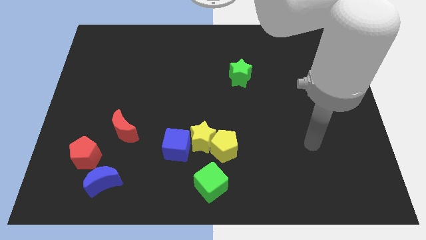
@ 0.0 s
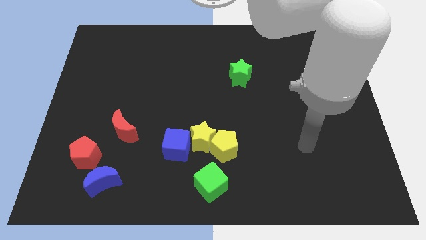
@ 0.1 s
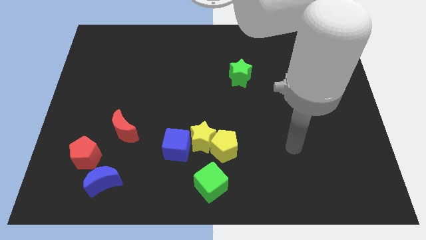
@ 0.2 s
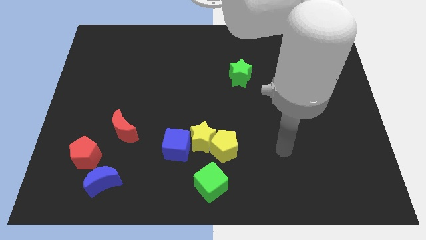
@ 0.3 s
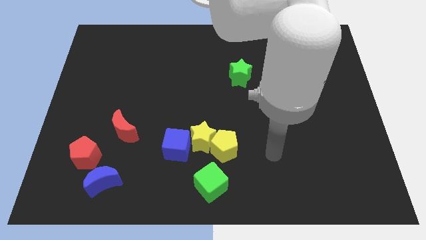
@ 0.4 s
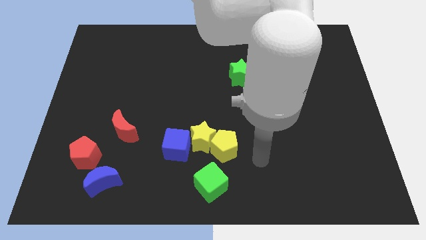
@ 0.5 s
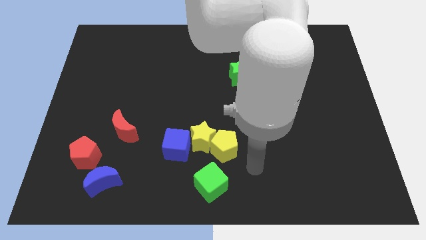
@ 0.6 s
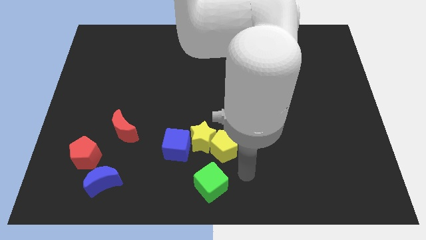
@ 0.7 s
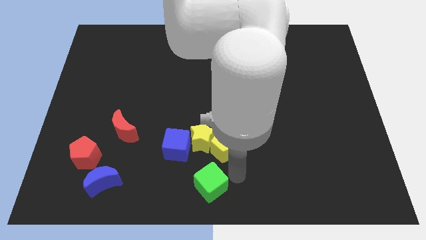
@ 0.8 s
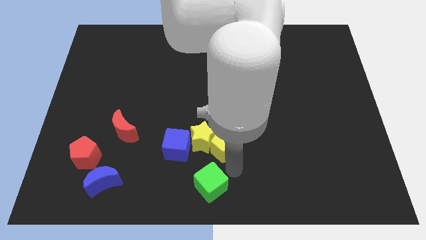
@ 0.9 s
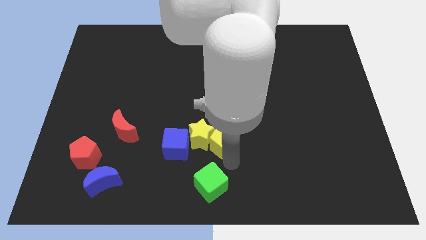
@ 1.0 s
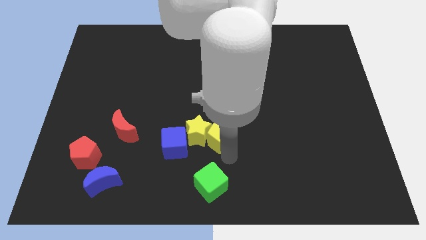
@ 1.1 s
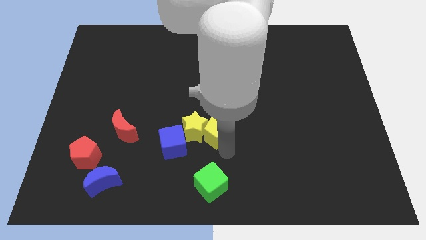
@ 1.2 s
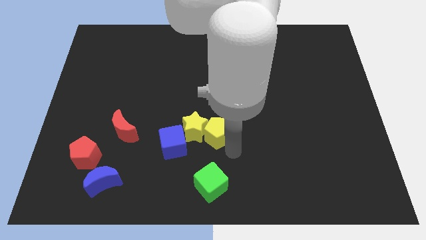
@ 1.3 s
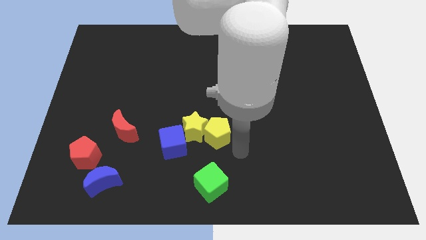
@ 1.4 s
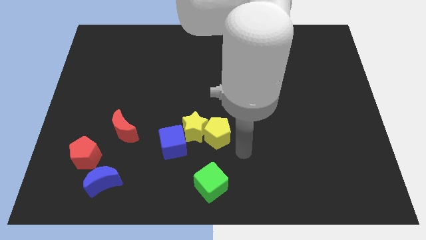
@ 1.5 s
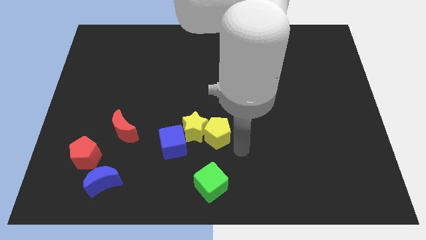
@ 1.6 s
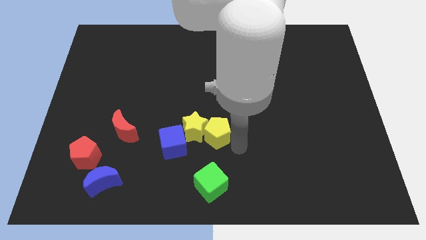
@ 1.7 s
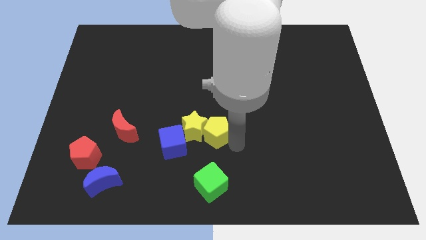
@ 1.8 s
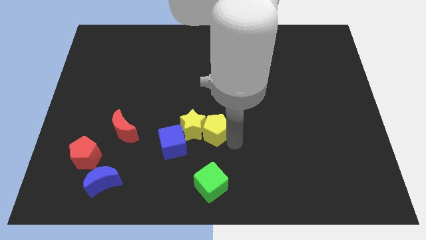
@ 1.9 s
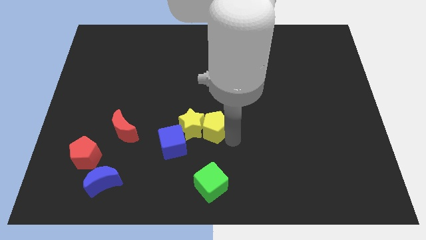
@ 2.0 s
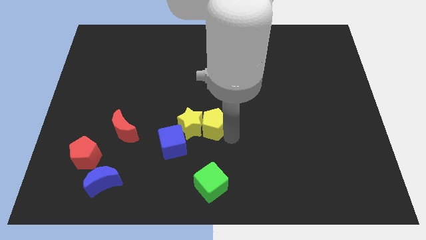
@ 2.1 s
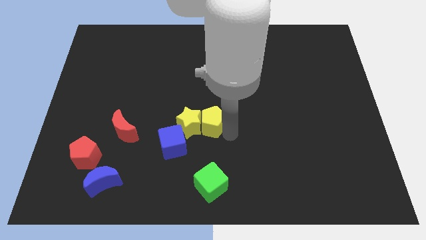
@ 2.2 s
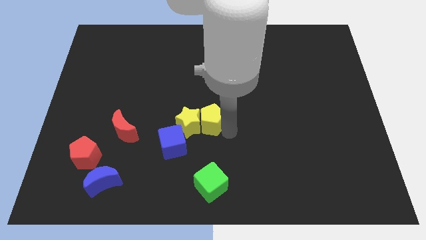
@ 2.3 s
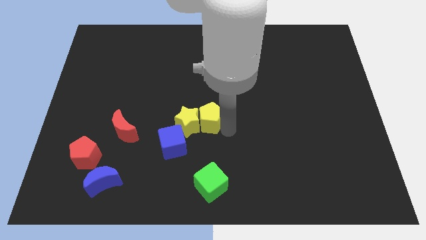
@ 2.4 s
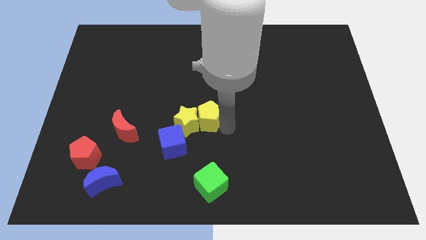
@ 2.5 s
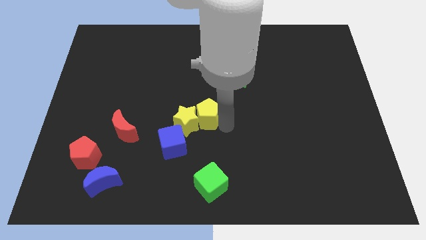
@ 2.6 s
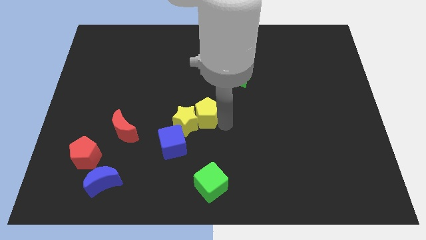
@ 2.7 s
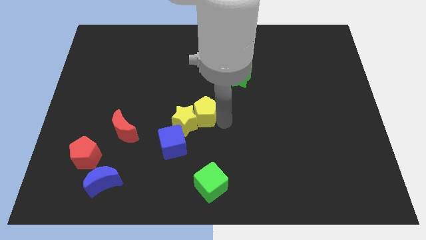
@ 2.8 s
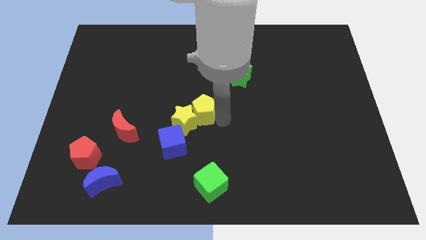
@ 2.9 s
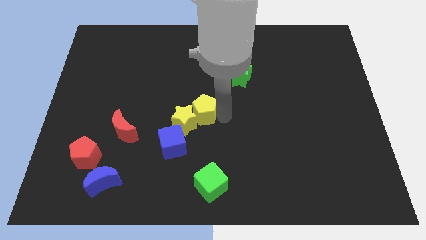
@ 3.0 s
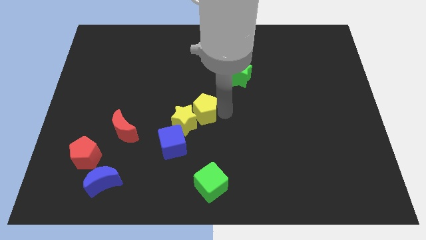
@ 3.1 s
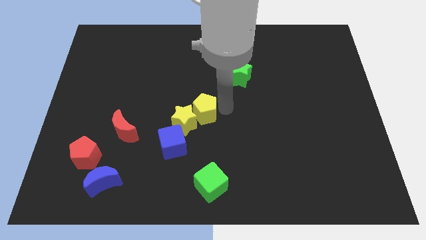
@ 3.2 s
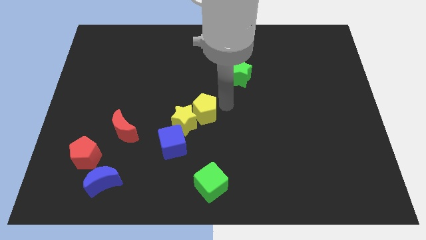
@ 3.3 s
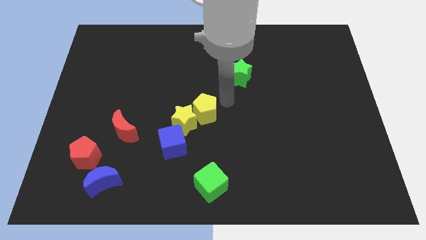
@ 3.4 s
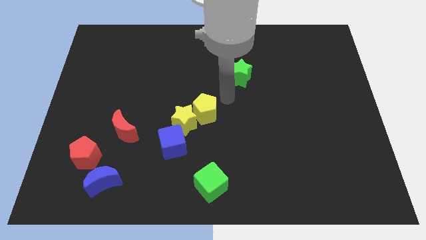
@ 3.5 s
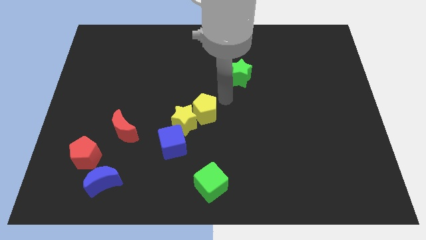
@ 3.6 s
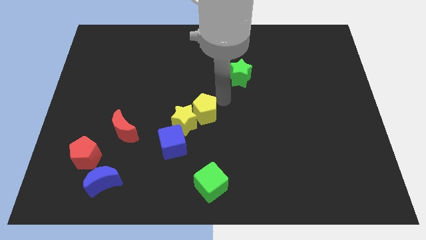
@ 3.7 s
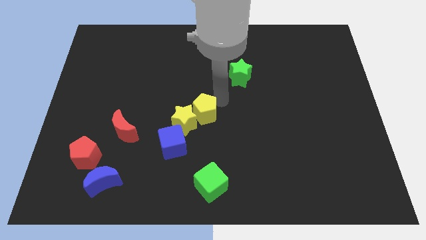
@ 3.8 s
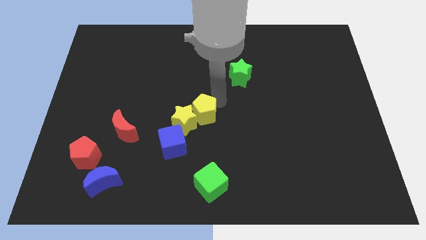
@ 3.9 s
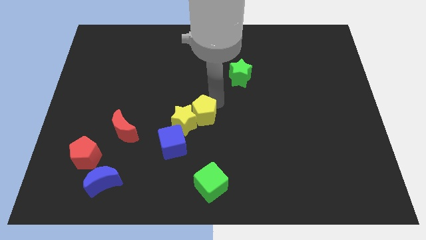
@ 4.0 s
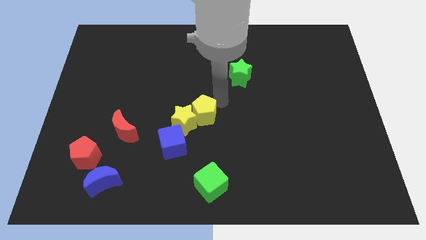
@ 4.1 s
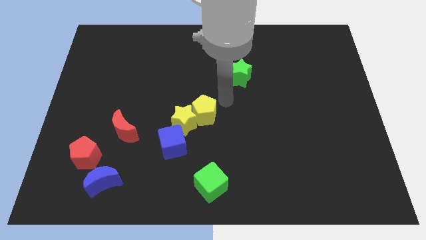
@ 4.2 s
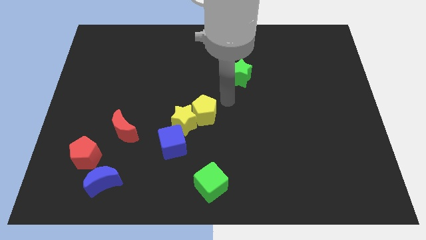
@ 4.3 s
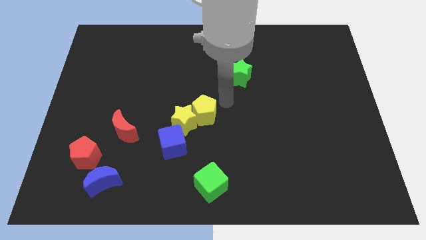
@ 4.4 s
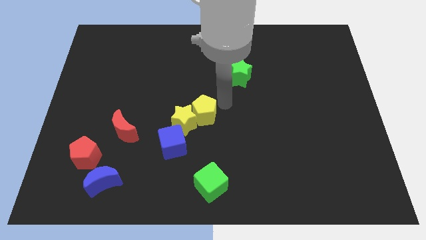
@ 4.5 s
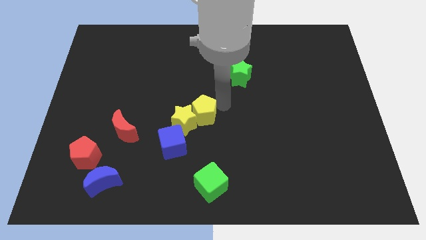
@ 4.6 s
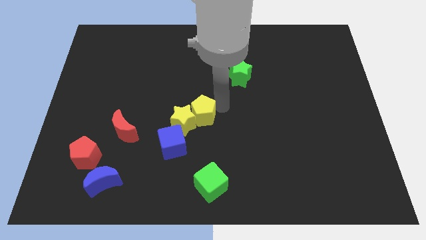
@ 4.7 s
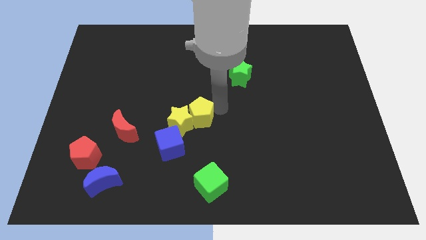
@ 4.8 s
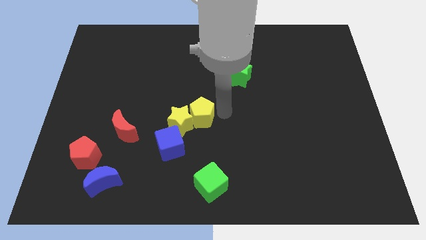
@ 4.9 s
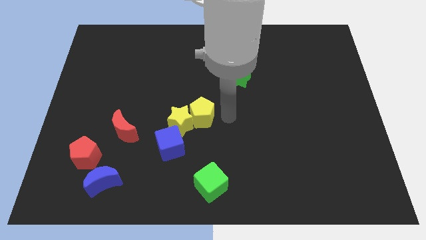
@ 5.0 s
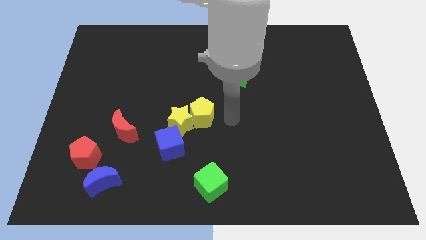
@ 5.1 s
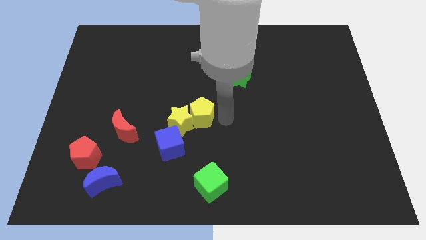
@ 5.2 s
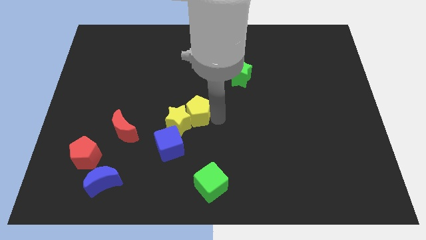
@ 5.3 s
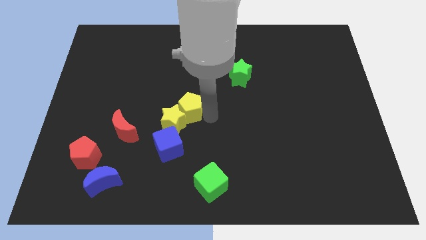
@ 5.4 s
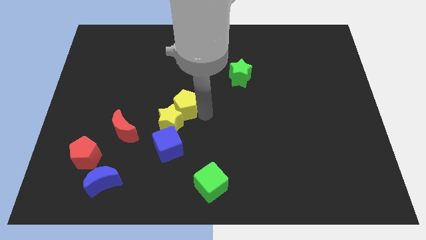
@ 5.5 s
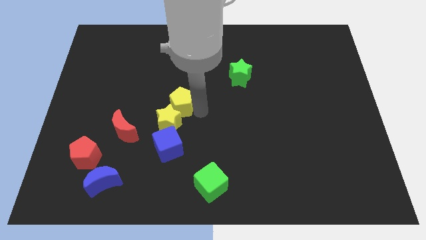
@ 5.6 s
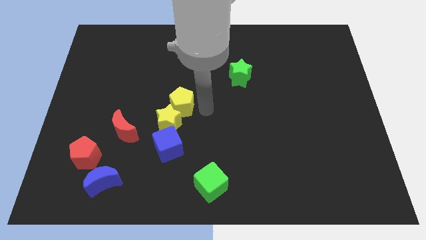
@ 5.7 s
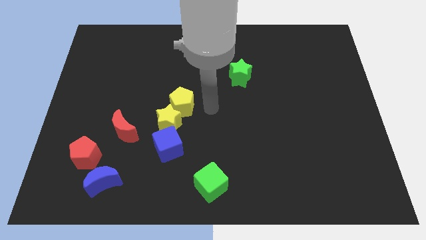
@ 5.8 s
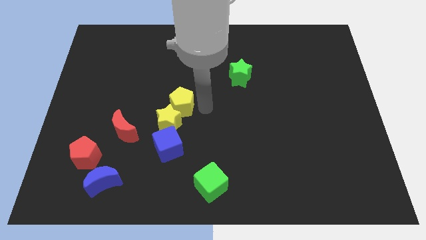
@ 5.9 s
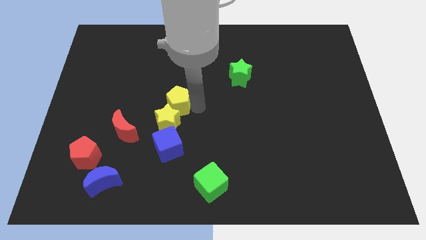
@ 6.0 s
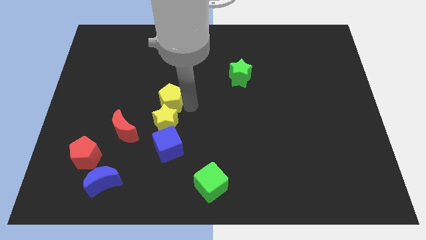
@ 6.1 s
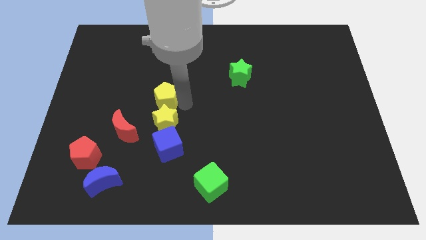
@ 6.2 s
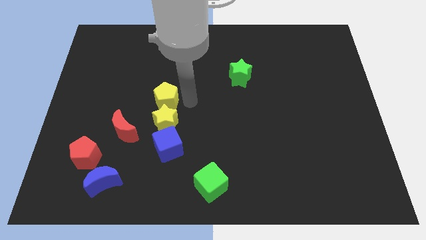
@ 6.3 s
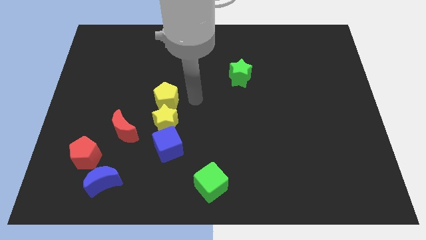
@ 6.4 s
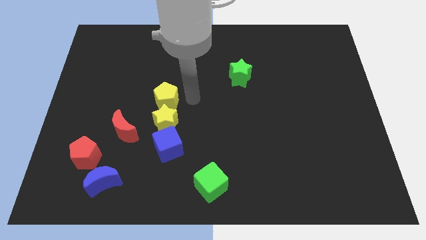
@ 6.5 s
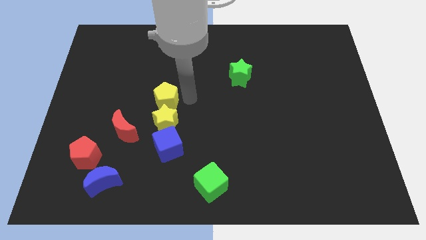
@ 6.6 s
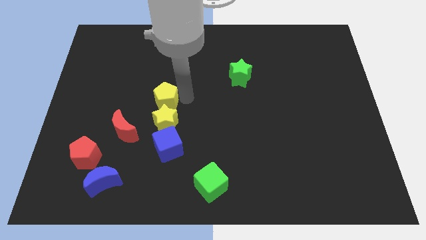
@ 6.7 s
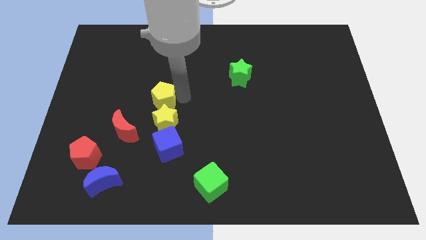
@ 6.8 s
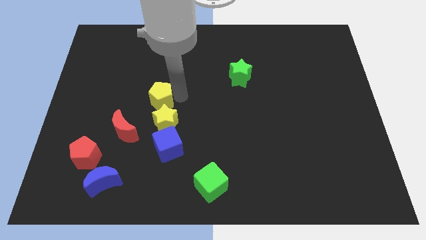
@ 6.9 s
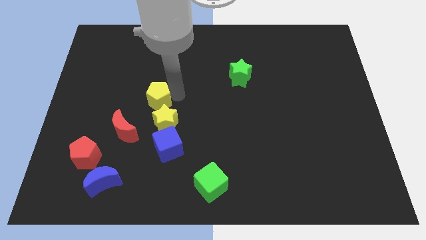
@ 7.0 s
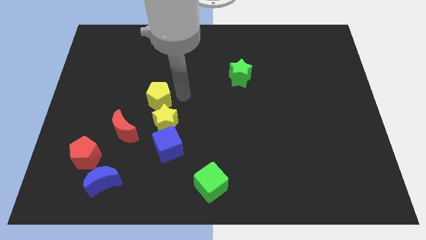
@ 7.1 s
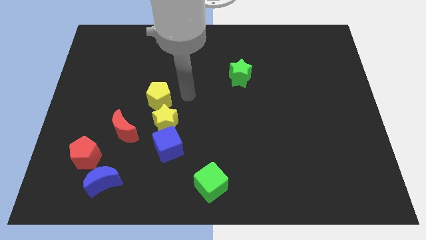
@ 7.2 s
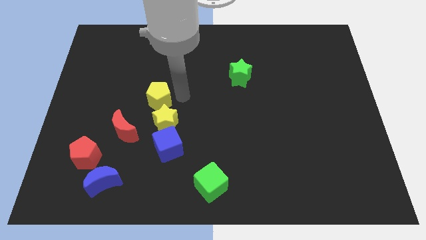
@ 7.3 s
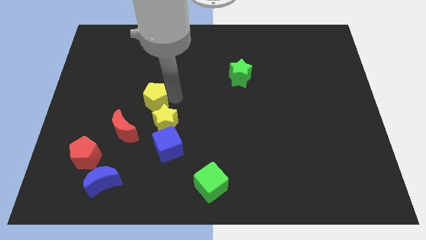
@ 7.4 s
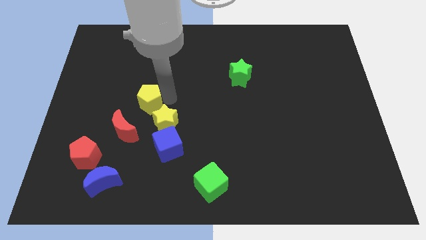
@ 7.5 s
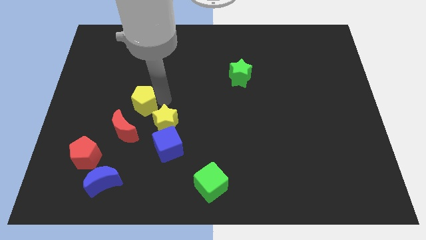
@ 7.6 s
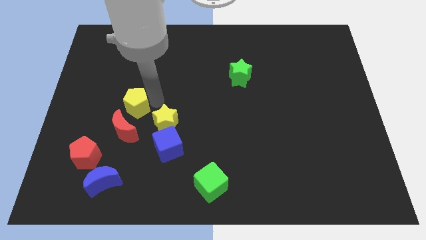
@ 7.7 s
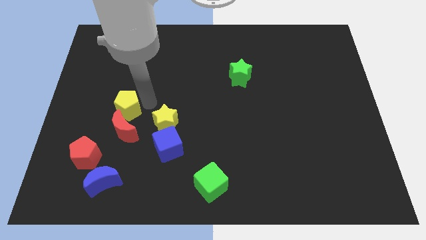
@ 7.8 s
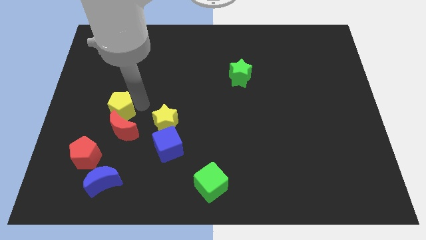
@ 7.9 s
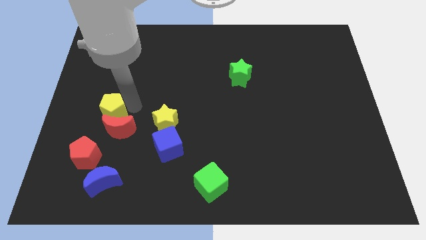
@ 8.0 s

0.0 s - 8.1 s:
move the yellow pentagon to the top side of the red pentagon
